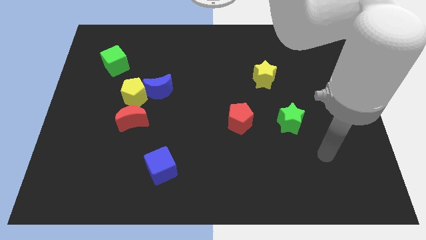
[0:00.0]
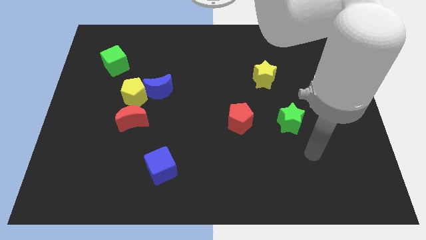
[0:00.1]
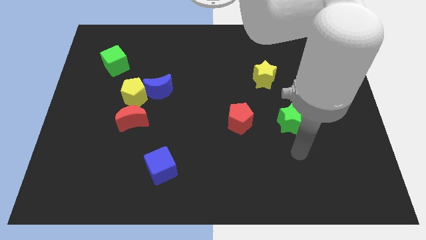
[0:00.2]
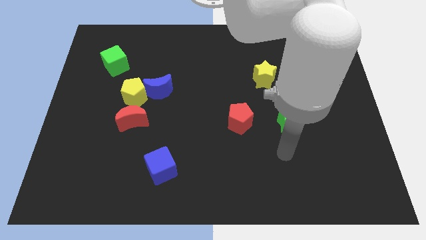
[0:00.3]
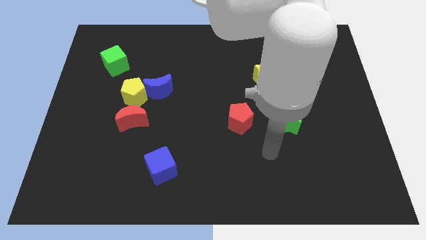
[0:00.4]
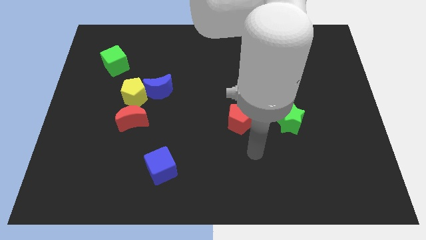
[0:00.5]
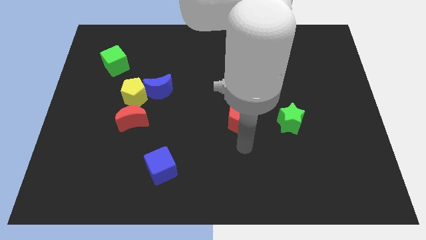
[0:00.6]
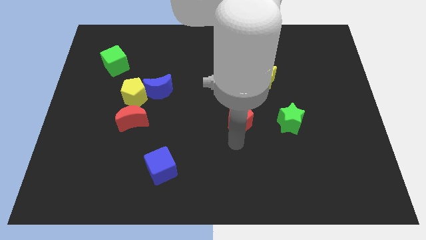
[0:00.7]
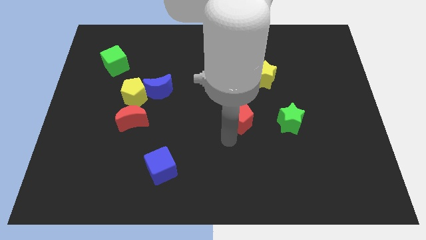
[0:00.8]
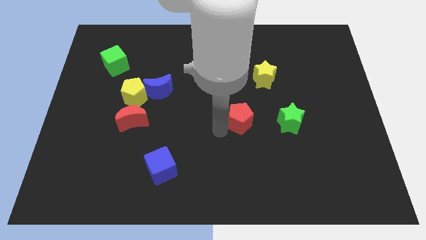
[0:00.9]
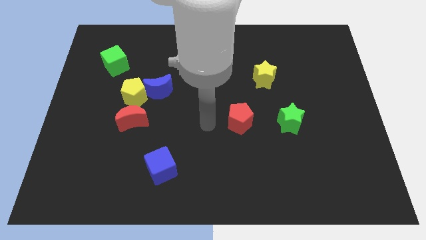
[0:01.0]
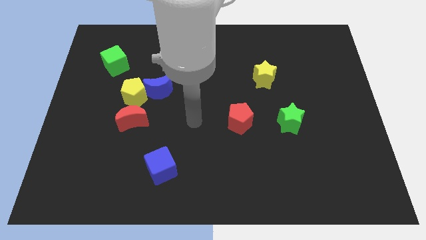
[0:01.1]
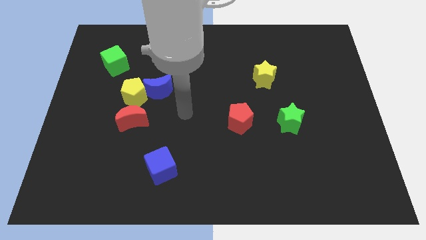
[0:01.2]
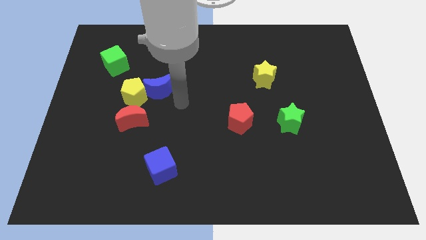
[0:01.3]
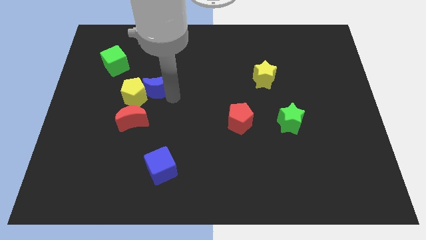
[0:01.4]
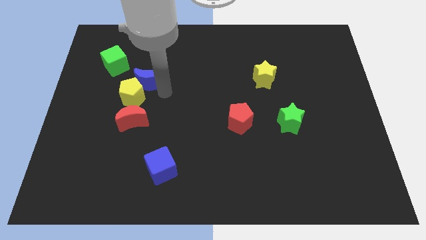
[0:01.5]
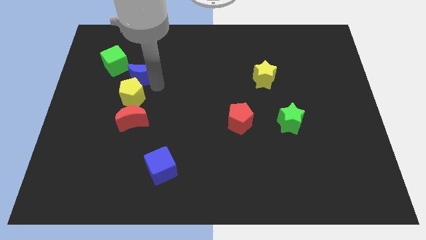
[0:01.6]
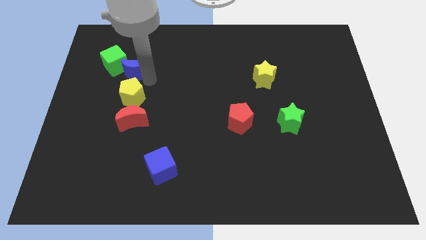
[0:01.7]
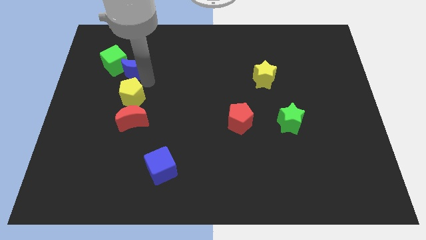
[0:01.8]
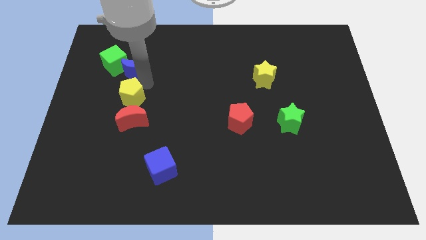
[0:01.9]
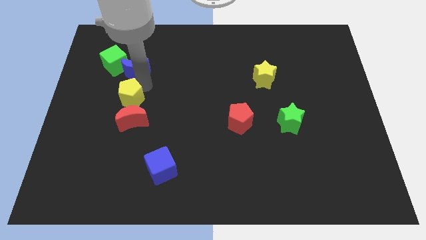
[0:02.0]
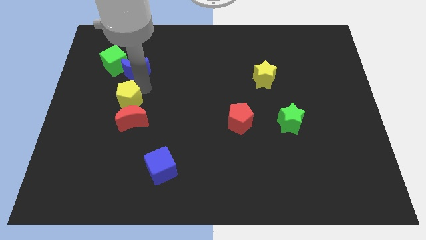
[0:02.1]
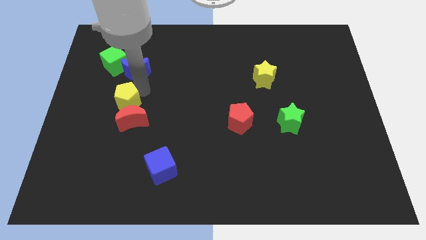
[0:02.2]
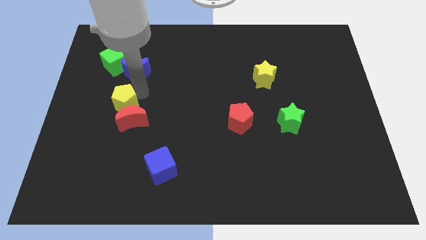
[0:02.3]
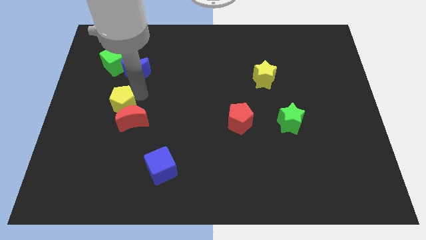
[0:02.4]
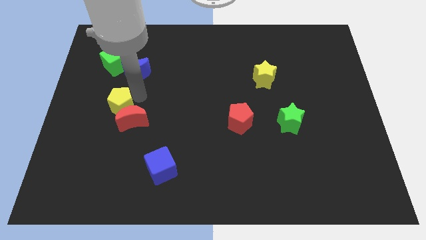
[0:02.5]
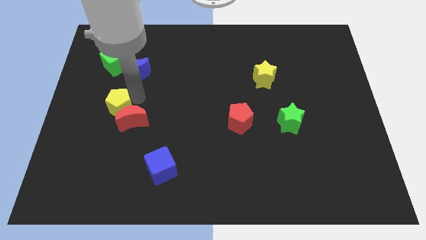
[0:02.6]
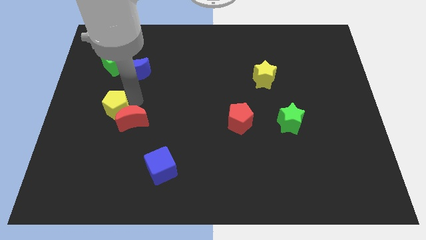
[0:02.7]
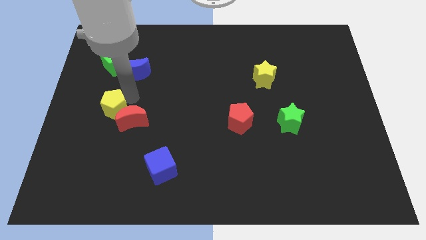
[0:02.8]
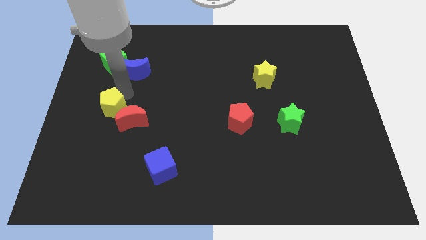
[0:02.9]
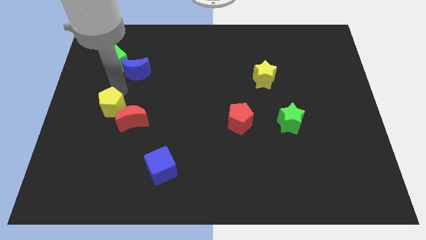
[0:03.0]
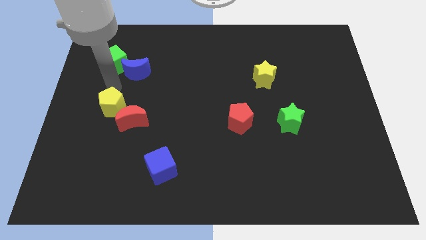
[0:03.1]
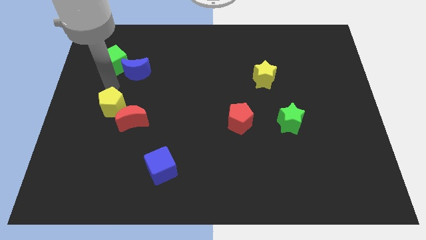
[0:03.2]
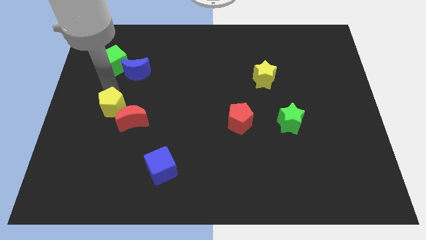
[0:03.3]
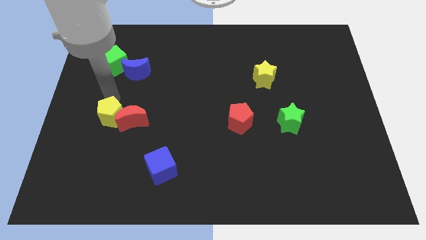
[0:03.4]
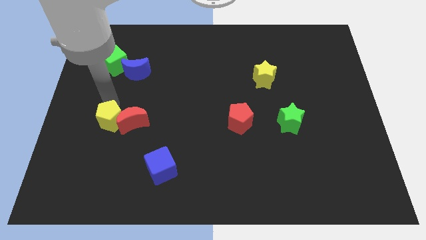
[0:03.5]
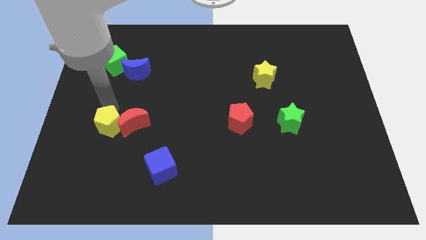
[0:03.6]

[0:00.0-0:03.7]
slightly move the yellow pentagon down

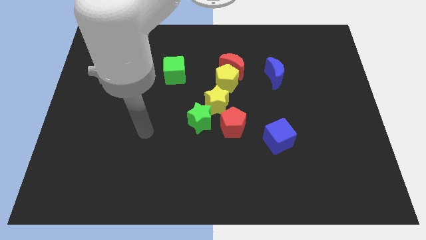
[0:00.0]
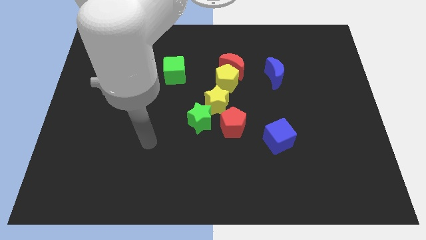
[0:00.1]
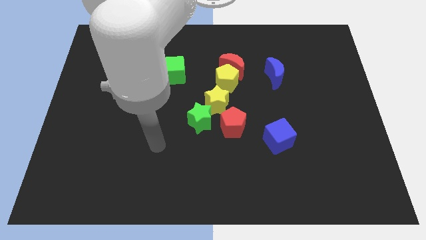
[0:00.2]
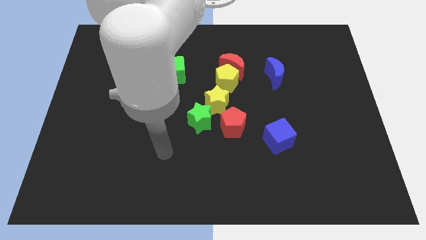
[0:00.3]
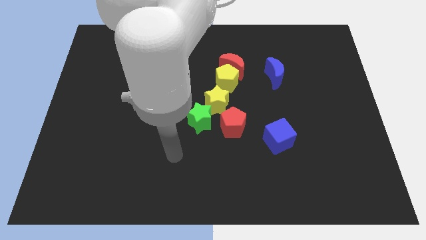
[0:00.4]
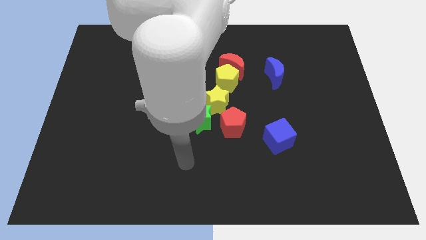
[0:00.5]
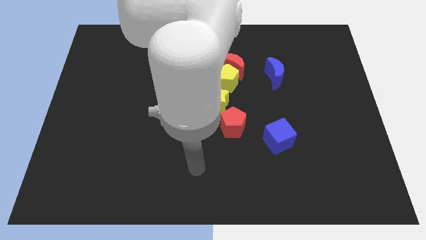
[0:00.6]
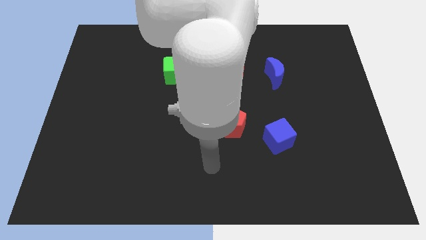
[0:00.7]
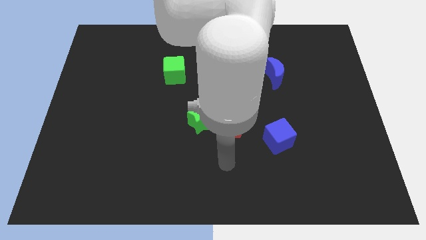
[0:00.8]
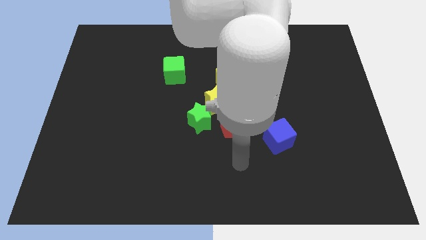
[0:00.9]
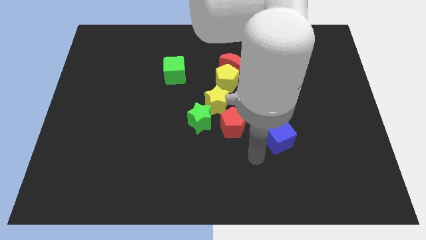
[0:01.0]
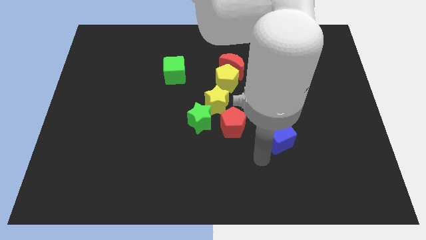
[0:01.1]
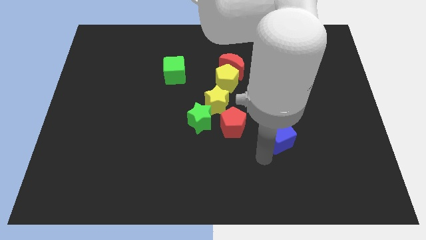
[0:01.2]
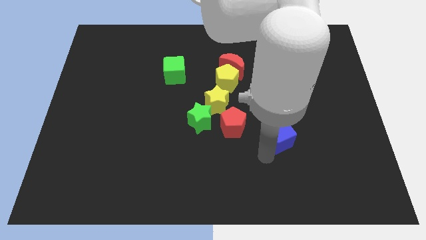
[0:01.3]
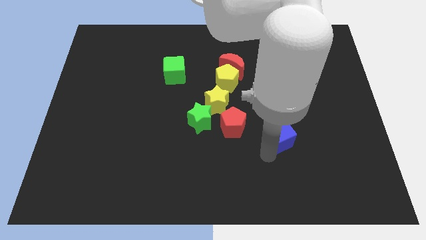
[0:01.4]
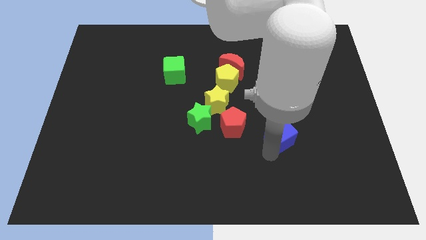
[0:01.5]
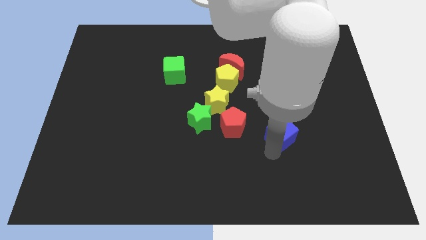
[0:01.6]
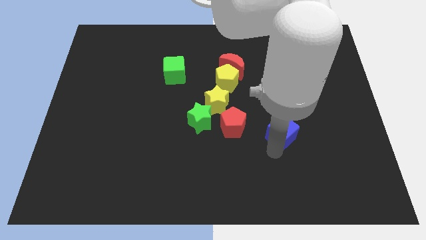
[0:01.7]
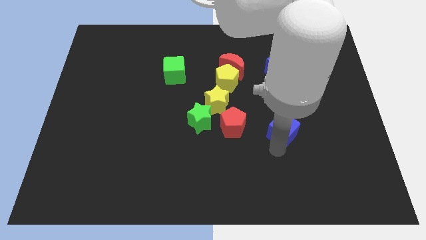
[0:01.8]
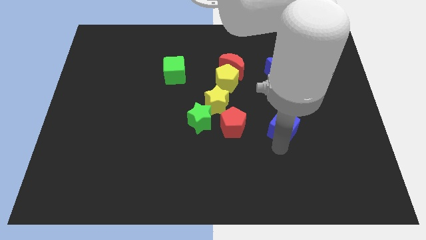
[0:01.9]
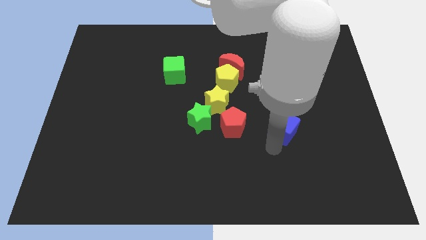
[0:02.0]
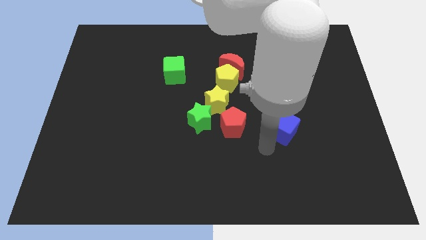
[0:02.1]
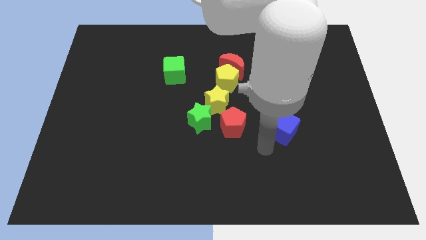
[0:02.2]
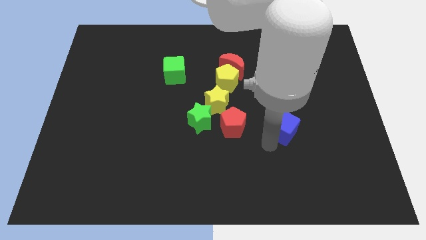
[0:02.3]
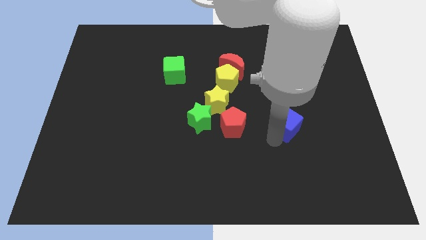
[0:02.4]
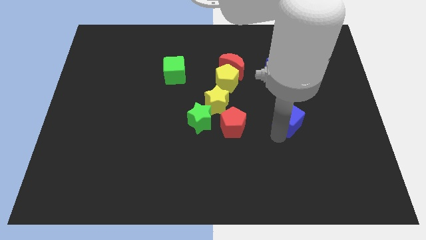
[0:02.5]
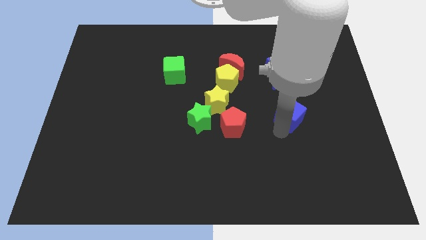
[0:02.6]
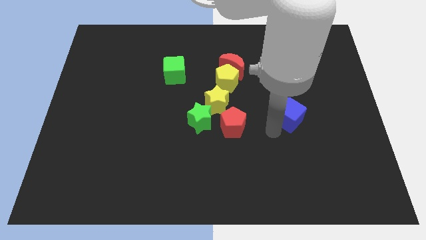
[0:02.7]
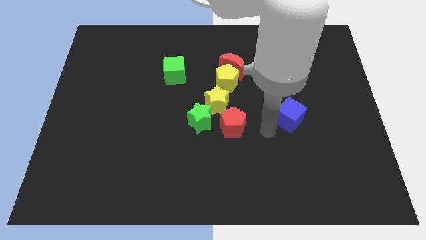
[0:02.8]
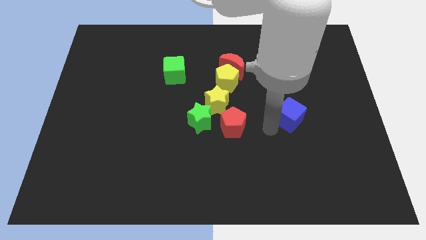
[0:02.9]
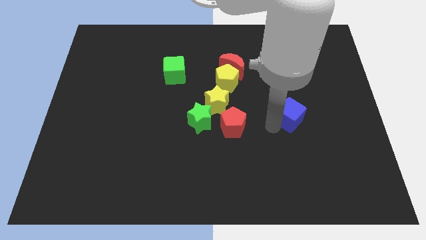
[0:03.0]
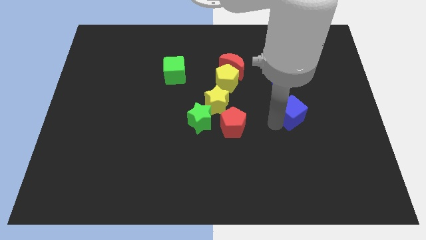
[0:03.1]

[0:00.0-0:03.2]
slide the blue cube up and to the right a little bit

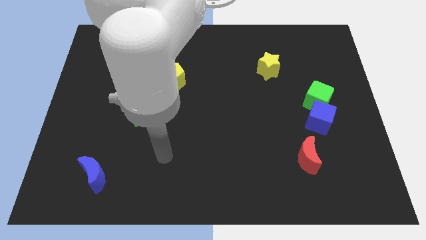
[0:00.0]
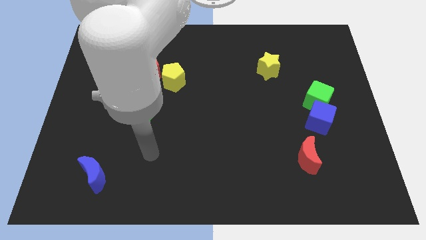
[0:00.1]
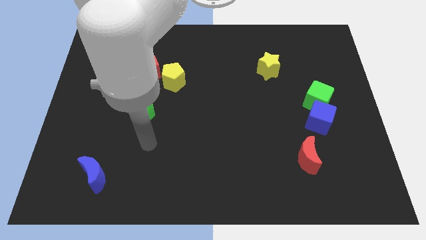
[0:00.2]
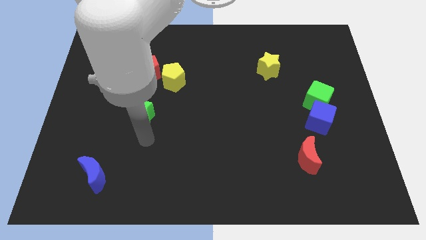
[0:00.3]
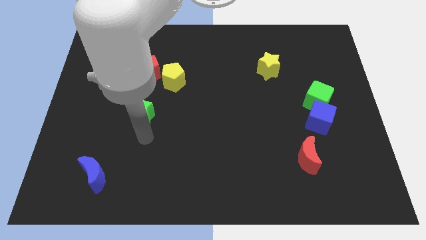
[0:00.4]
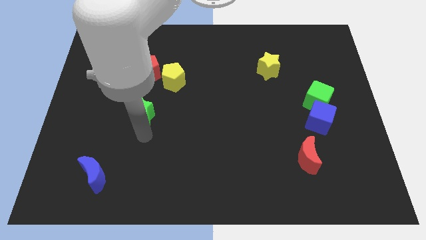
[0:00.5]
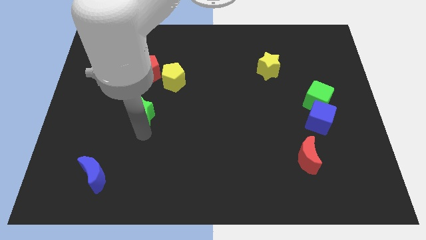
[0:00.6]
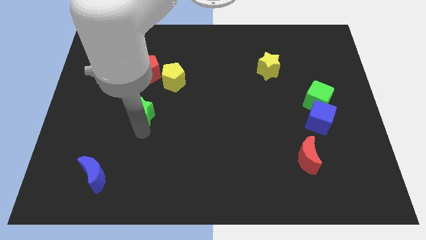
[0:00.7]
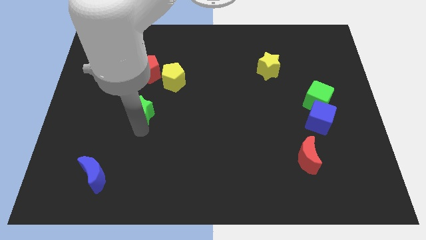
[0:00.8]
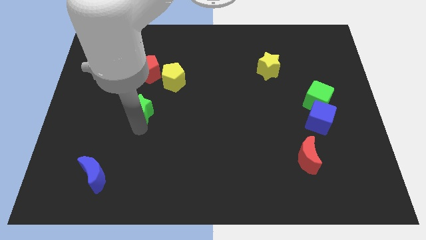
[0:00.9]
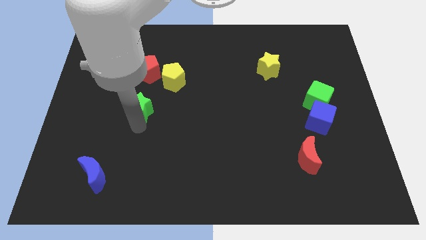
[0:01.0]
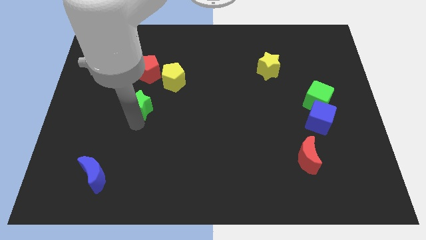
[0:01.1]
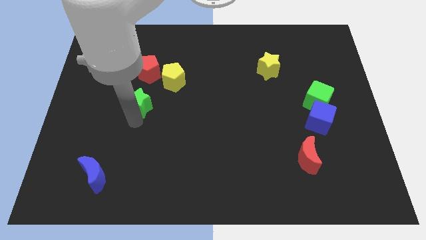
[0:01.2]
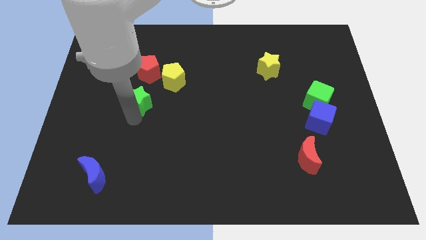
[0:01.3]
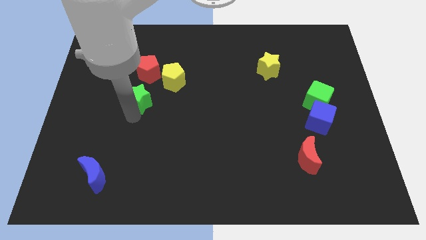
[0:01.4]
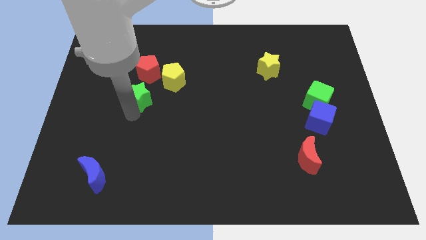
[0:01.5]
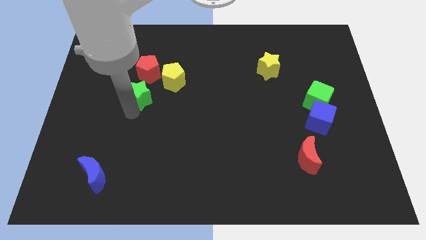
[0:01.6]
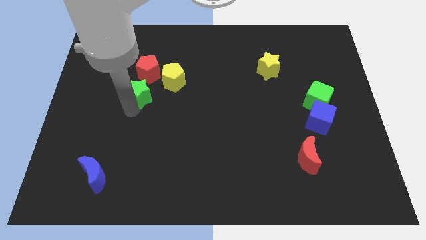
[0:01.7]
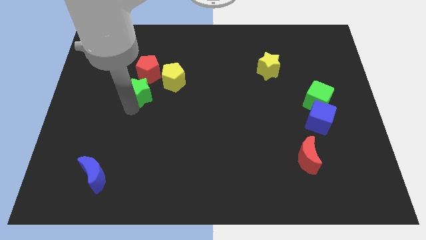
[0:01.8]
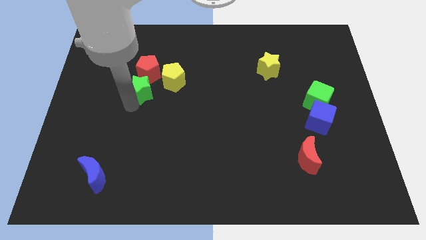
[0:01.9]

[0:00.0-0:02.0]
slide the green star a bit upwards
